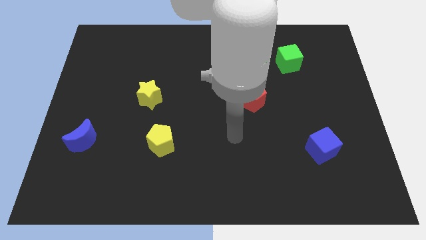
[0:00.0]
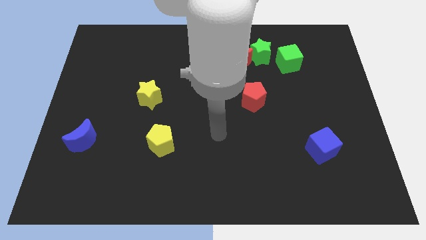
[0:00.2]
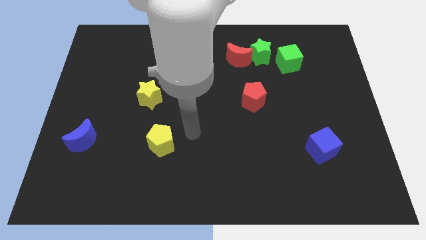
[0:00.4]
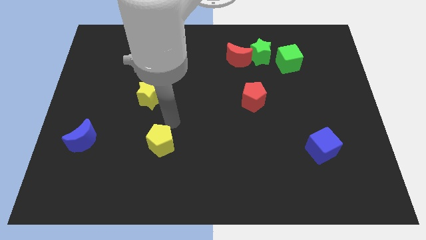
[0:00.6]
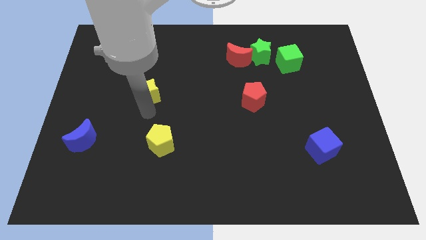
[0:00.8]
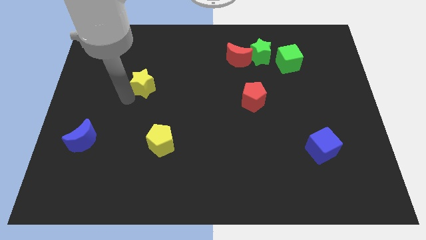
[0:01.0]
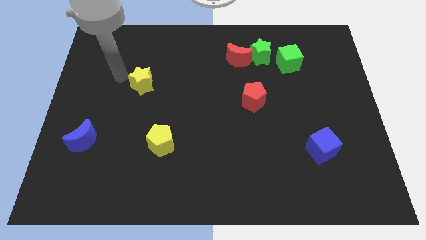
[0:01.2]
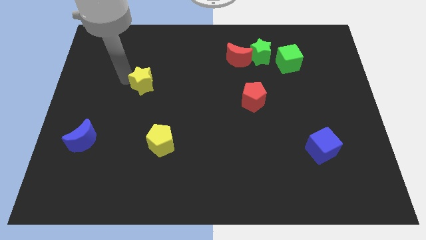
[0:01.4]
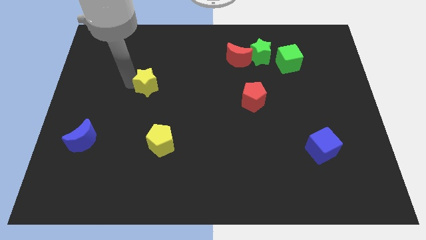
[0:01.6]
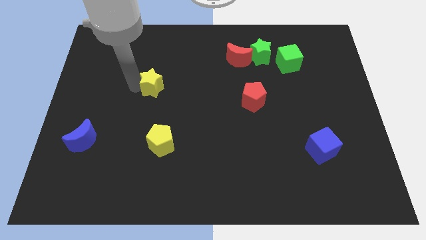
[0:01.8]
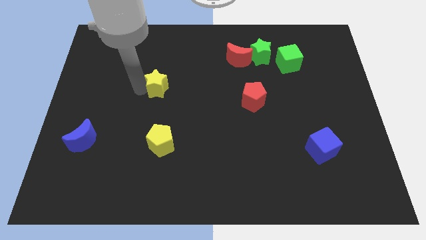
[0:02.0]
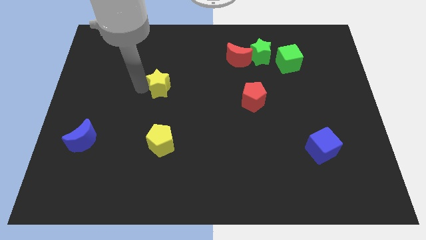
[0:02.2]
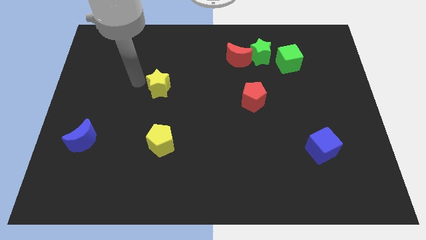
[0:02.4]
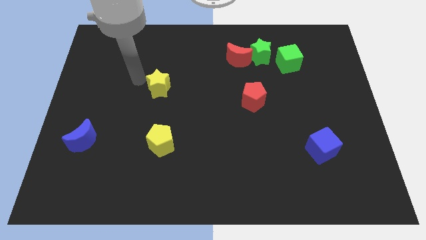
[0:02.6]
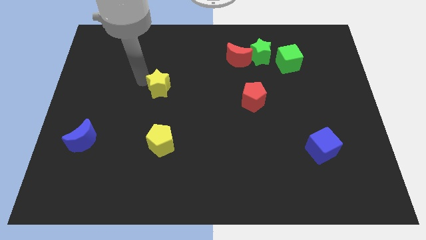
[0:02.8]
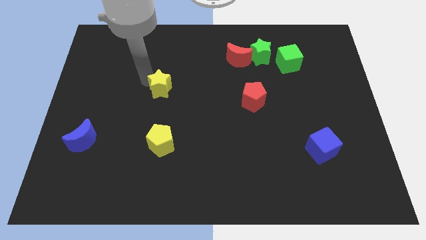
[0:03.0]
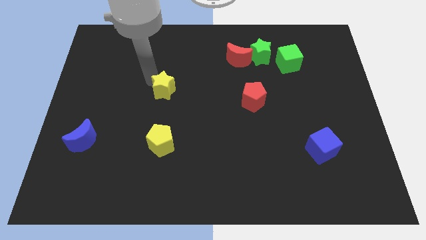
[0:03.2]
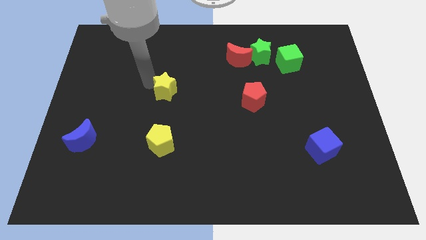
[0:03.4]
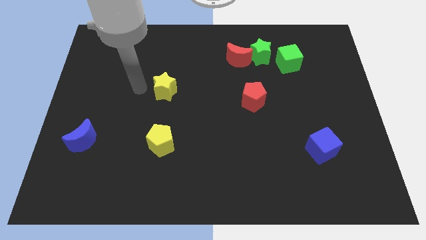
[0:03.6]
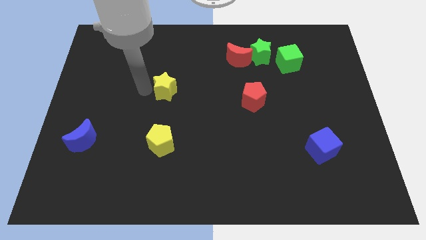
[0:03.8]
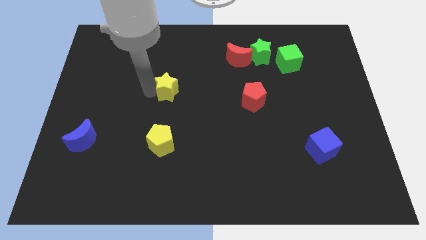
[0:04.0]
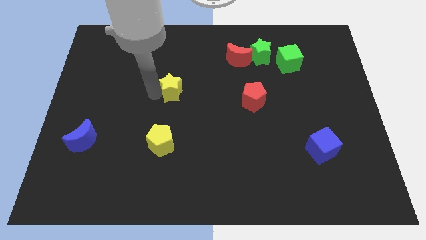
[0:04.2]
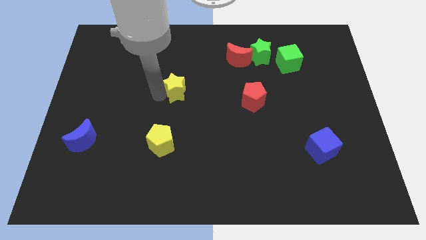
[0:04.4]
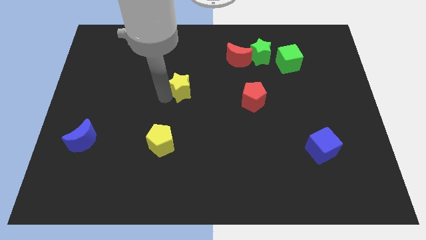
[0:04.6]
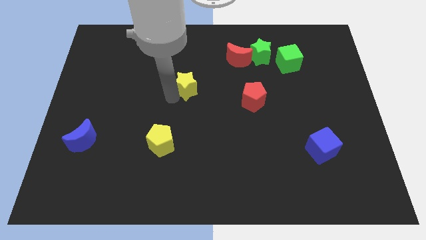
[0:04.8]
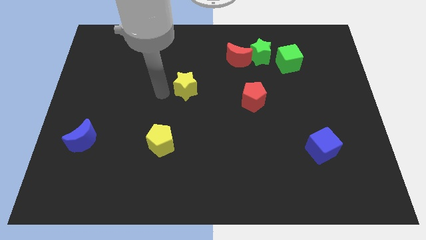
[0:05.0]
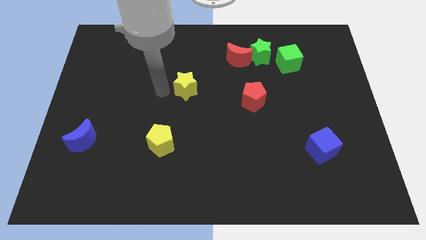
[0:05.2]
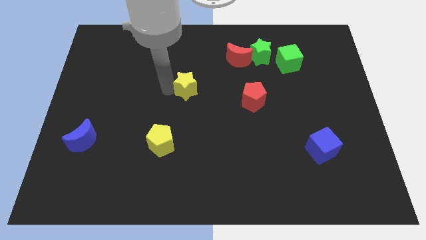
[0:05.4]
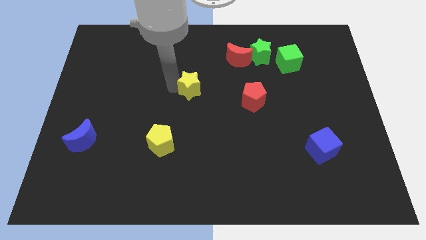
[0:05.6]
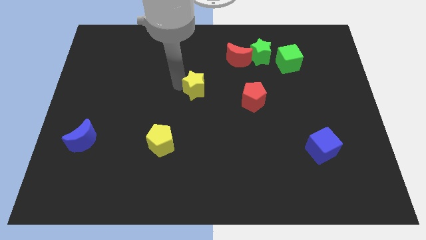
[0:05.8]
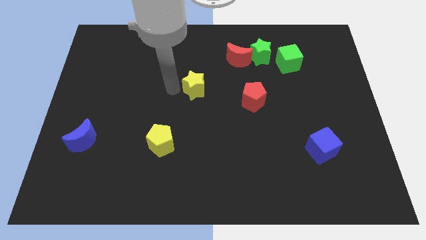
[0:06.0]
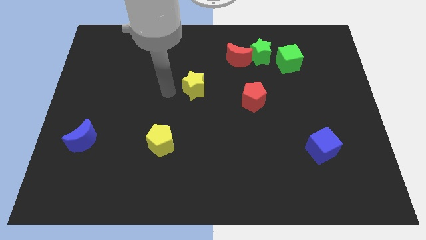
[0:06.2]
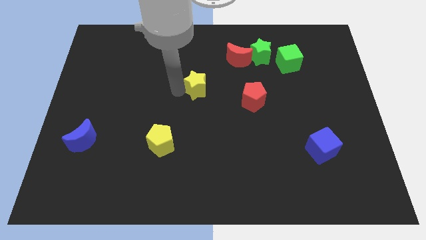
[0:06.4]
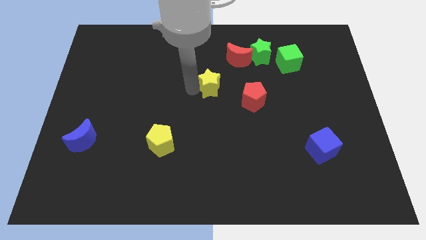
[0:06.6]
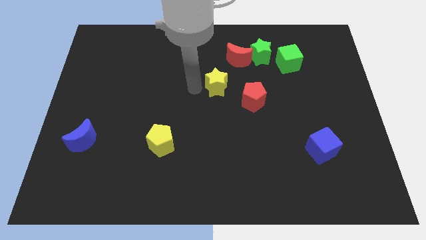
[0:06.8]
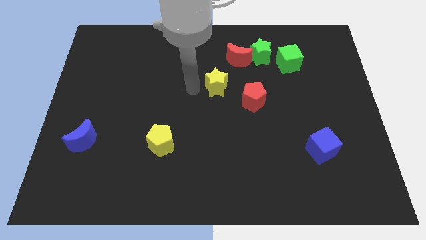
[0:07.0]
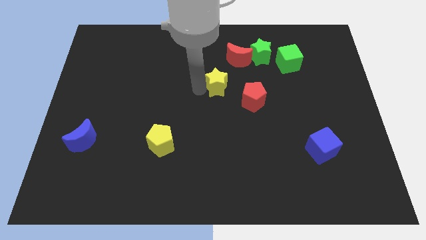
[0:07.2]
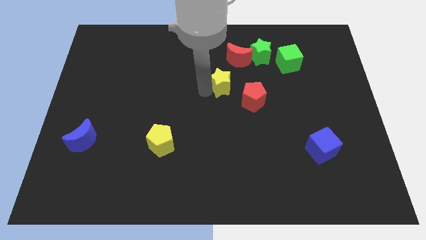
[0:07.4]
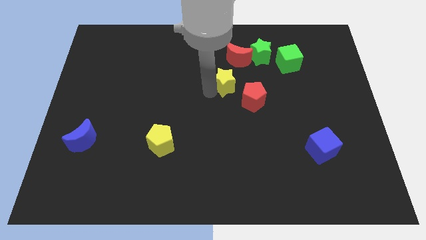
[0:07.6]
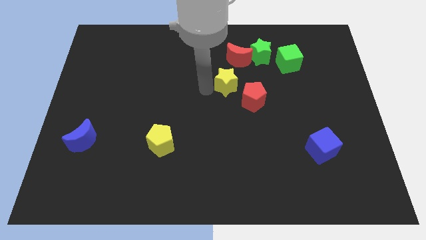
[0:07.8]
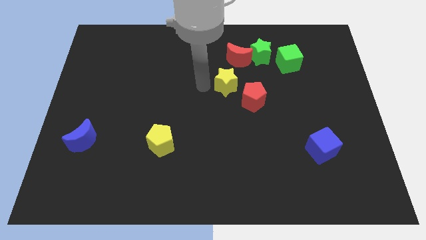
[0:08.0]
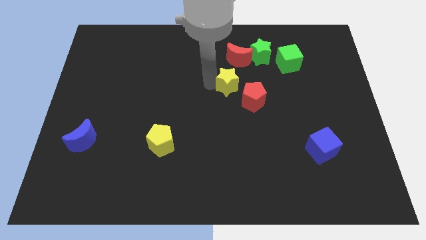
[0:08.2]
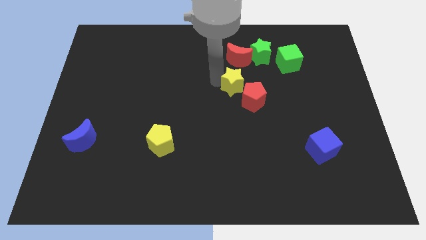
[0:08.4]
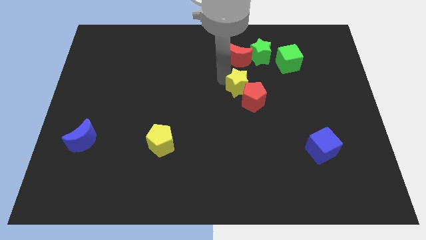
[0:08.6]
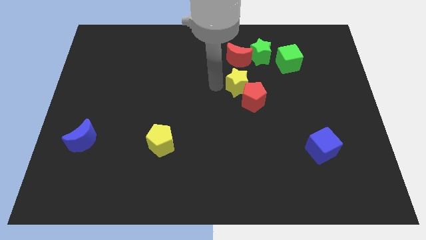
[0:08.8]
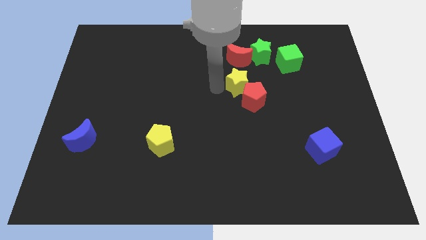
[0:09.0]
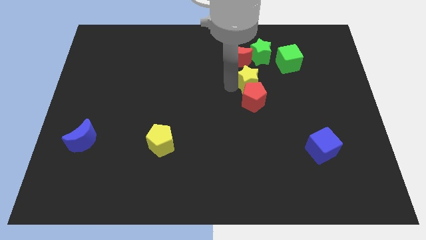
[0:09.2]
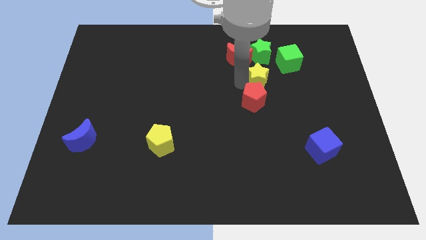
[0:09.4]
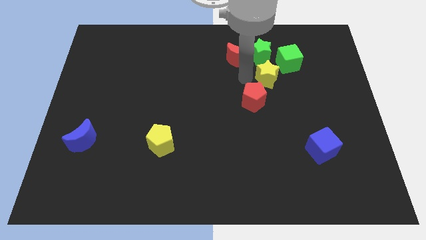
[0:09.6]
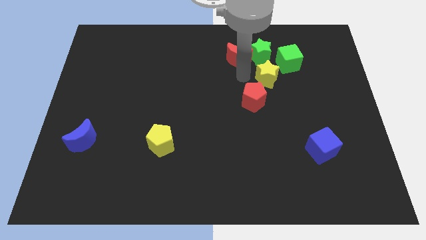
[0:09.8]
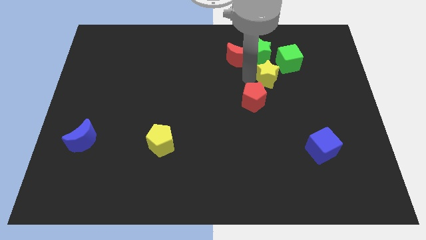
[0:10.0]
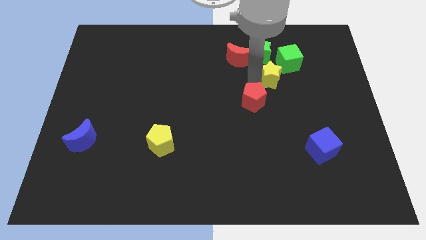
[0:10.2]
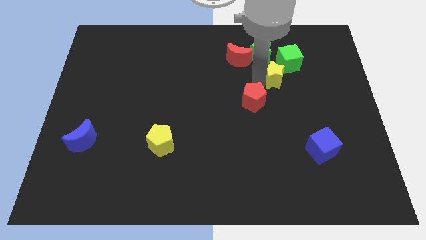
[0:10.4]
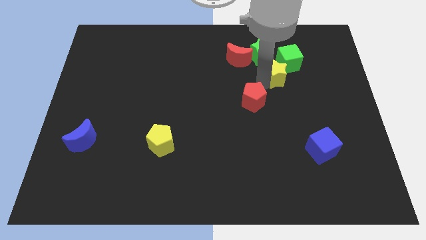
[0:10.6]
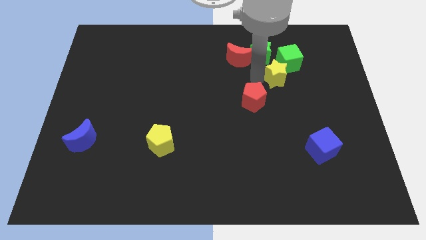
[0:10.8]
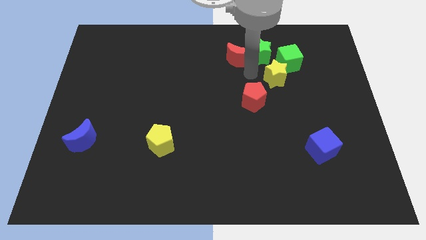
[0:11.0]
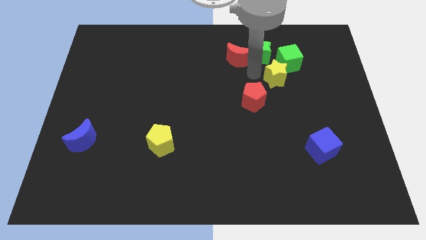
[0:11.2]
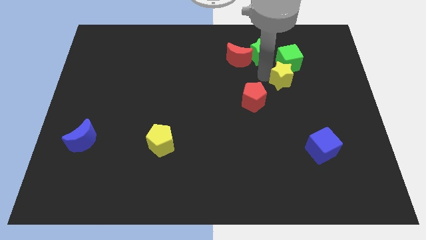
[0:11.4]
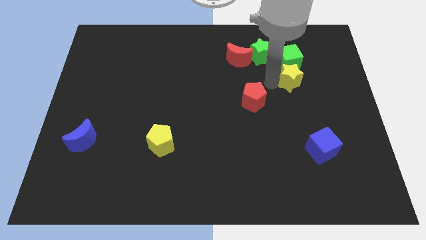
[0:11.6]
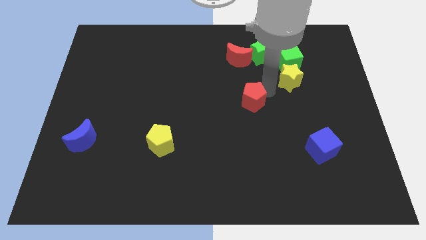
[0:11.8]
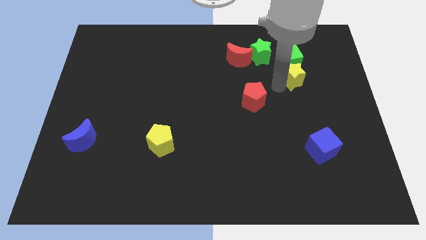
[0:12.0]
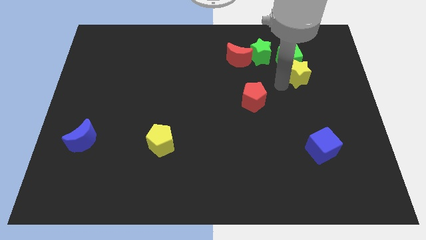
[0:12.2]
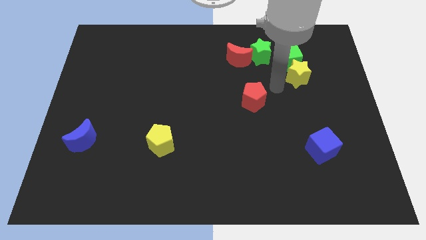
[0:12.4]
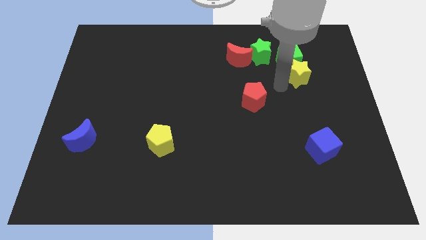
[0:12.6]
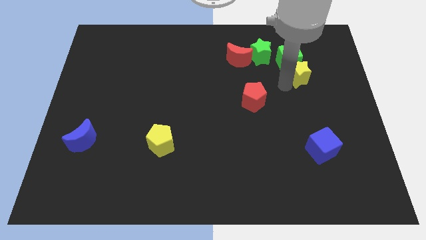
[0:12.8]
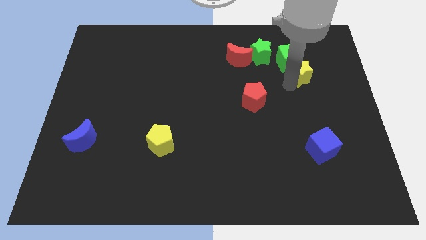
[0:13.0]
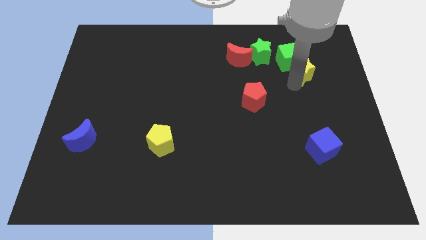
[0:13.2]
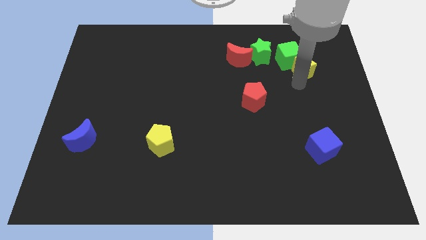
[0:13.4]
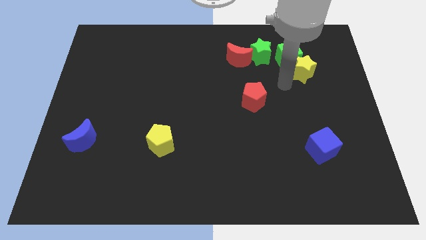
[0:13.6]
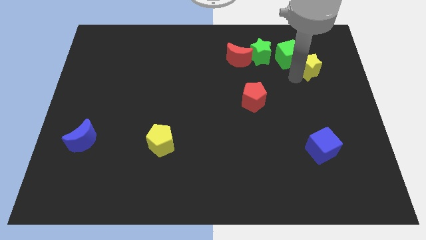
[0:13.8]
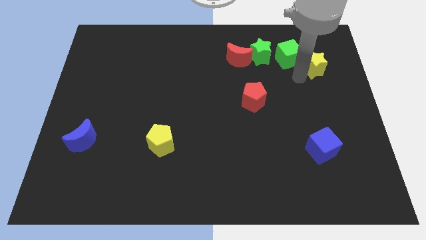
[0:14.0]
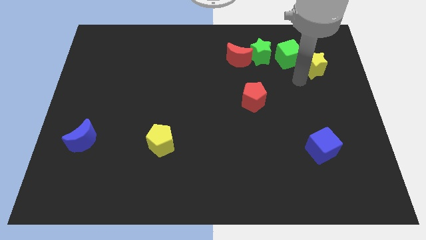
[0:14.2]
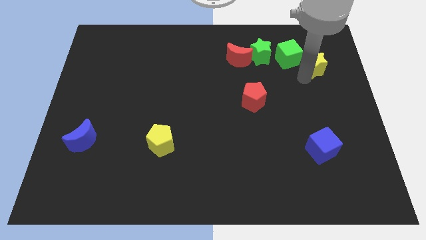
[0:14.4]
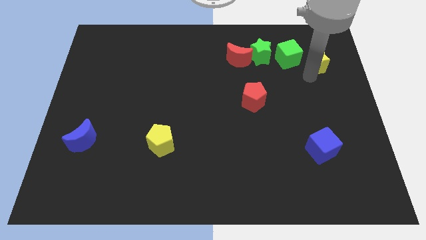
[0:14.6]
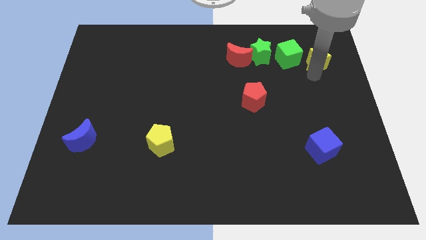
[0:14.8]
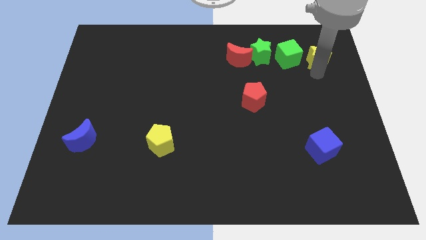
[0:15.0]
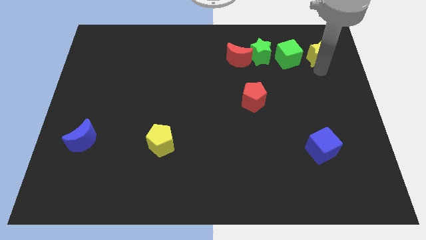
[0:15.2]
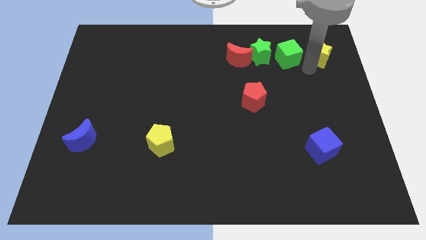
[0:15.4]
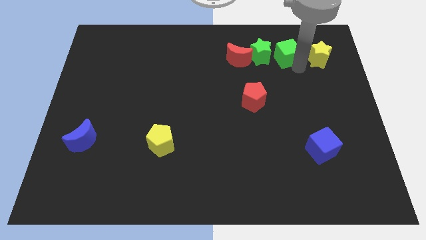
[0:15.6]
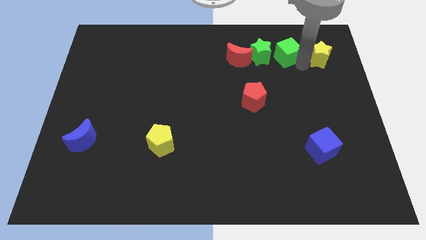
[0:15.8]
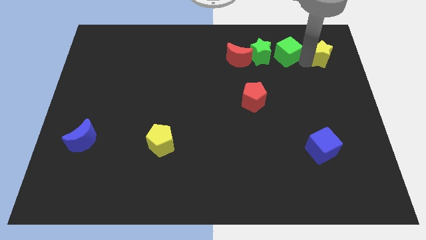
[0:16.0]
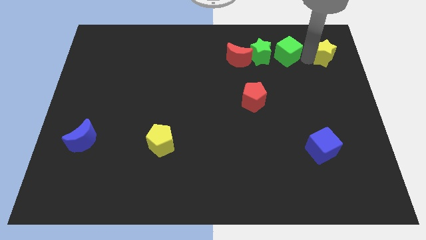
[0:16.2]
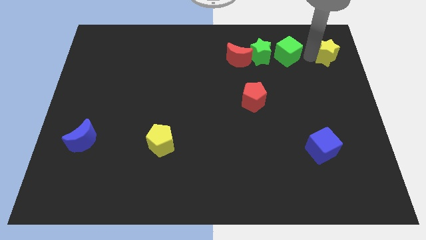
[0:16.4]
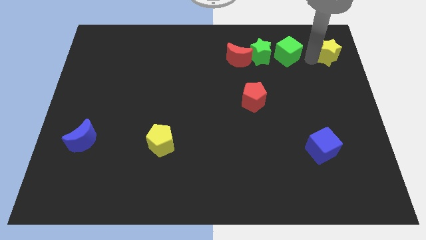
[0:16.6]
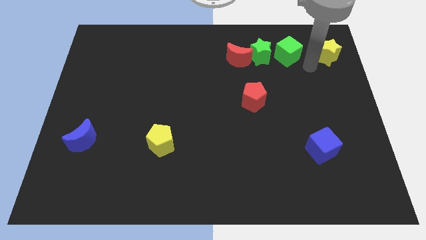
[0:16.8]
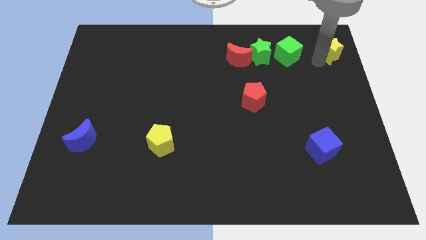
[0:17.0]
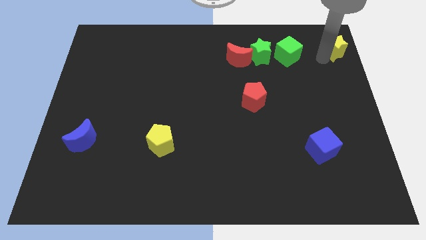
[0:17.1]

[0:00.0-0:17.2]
push the yellow star to the upper right corner
